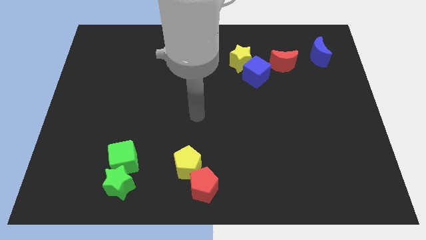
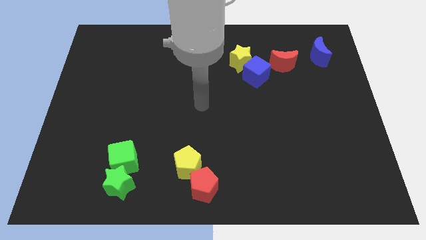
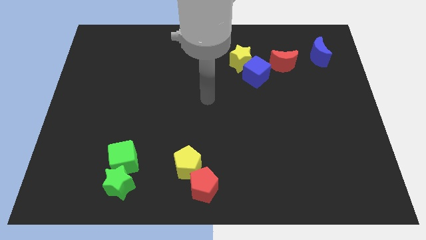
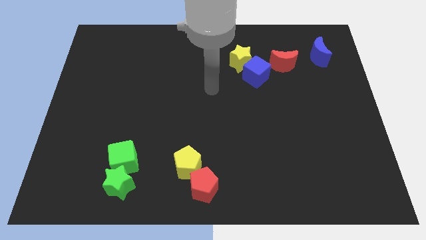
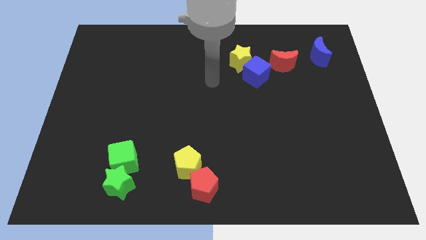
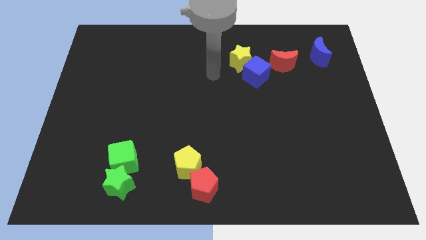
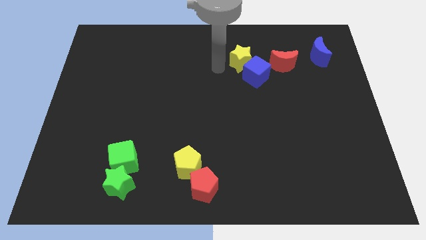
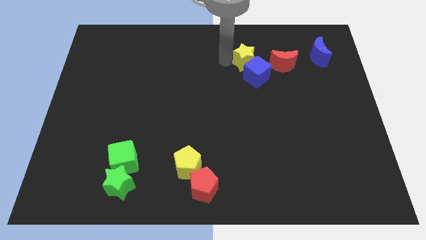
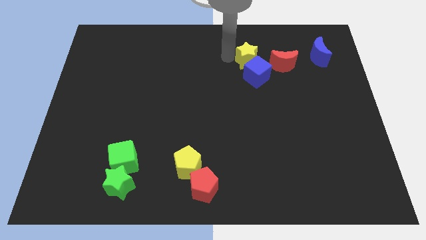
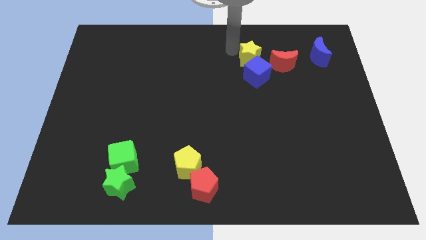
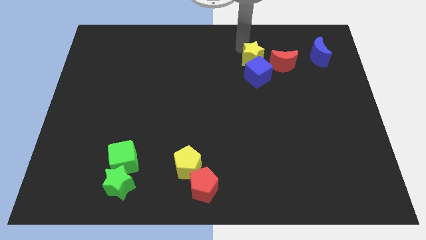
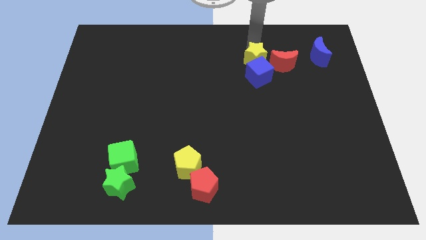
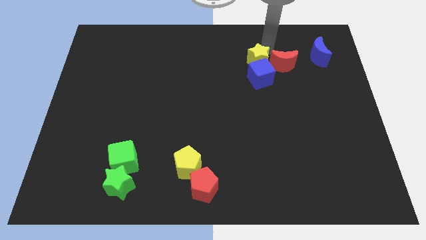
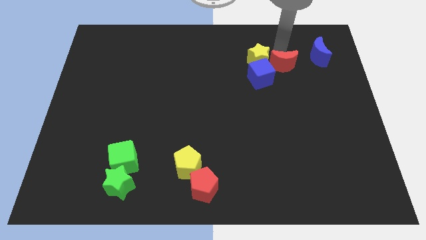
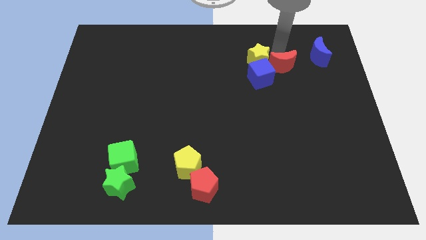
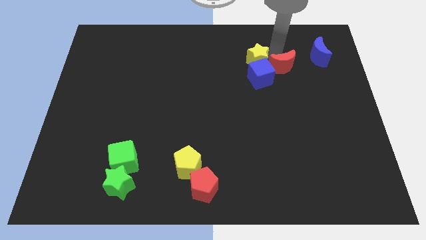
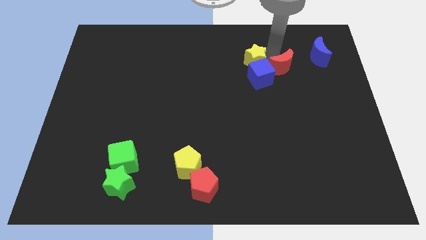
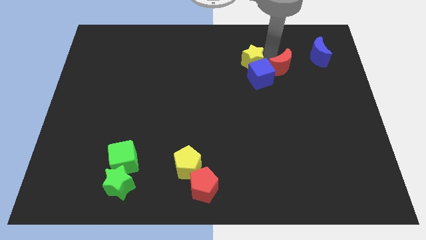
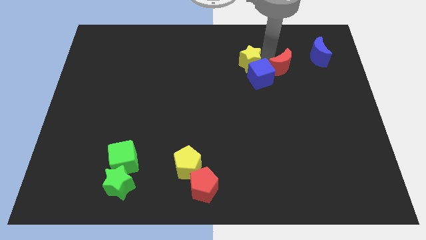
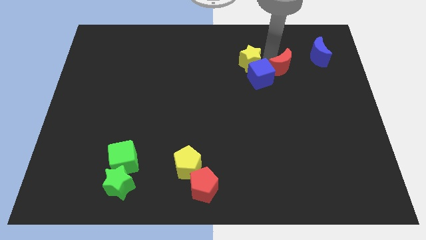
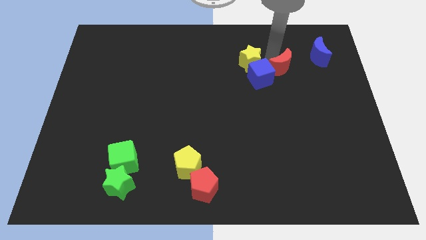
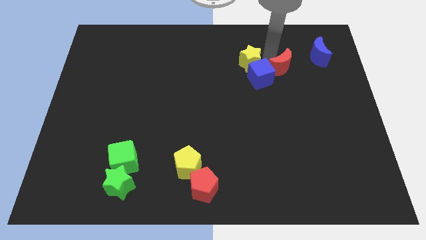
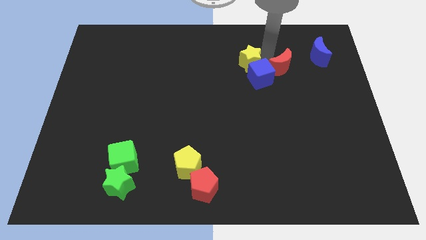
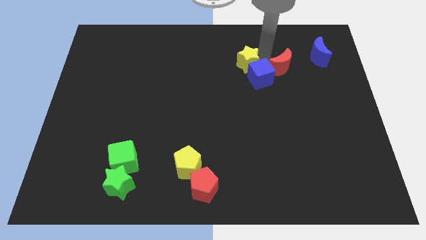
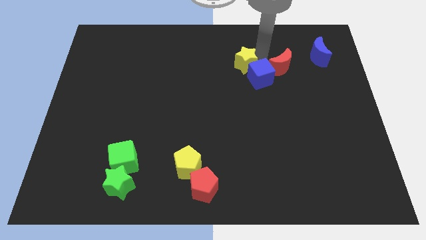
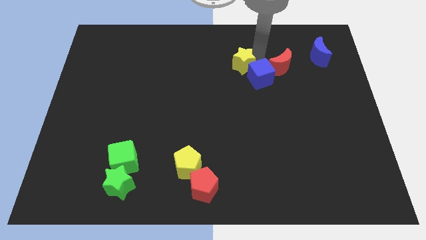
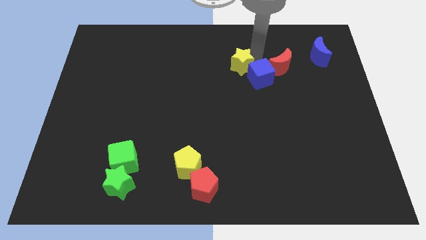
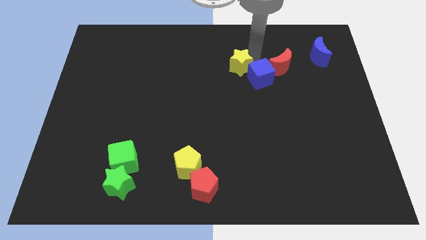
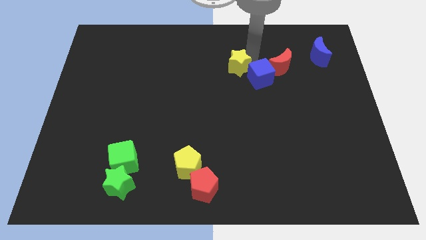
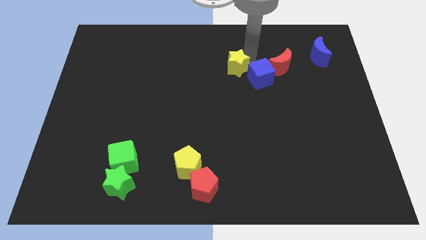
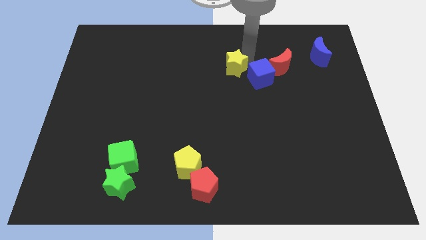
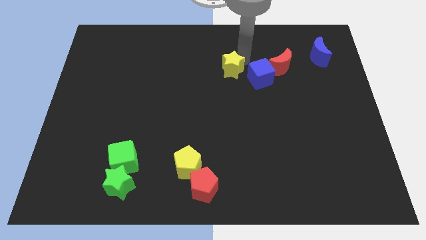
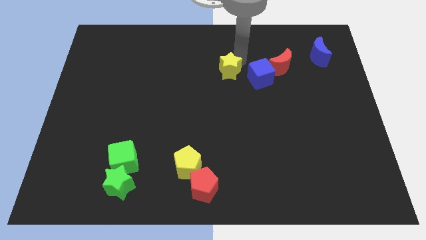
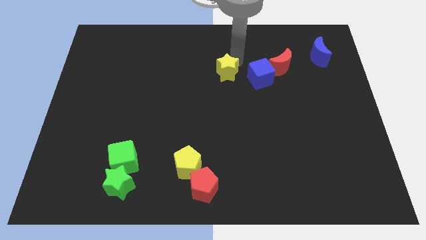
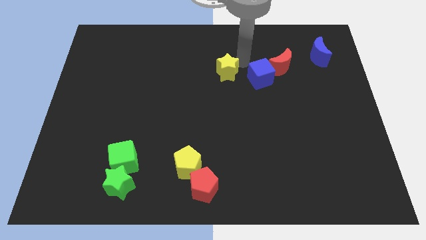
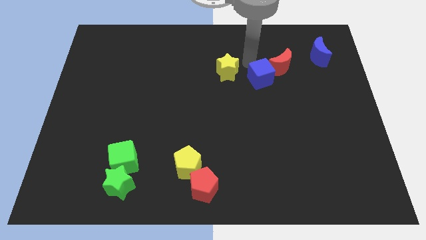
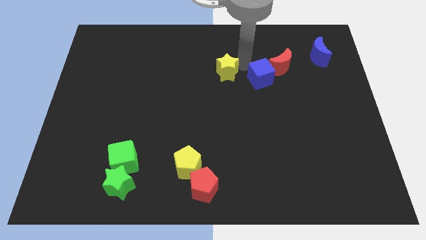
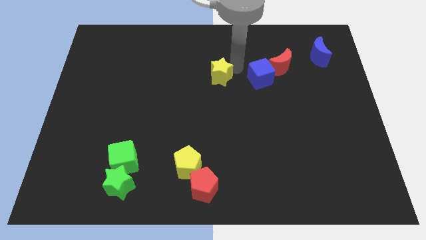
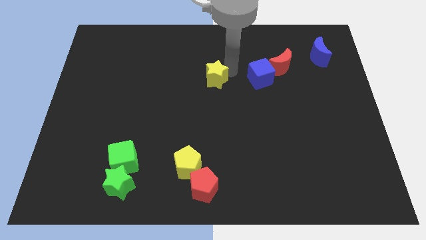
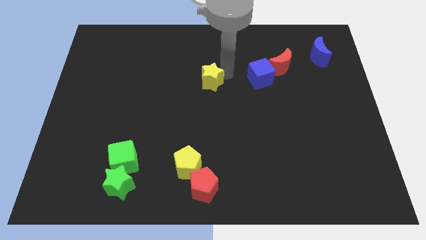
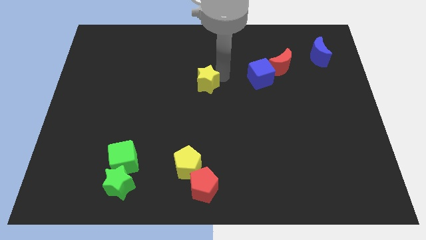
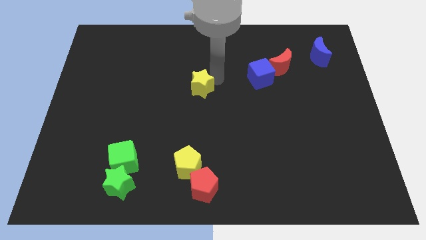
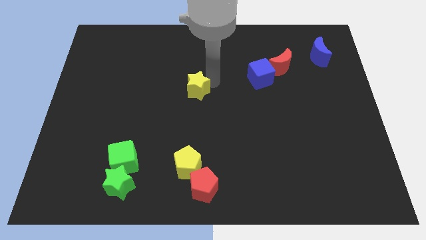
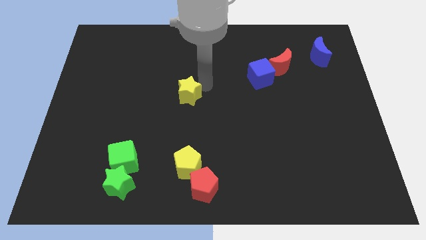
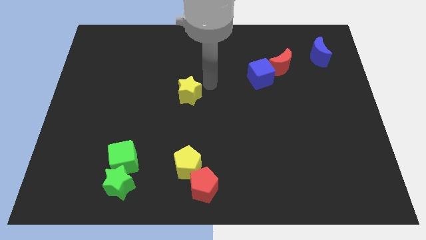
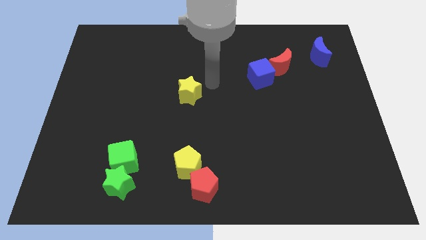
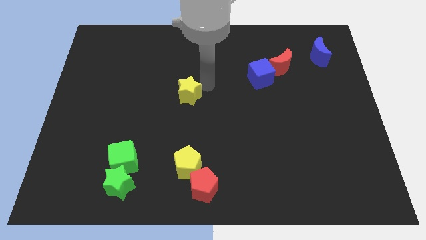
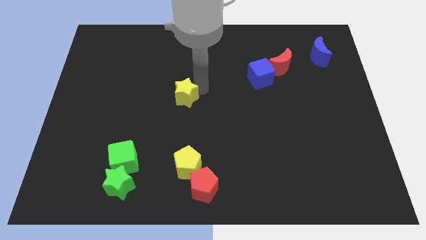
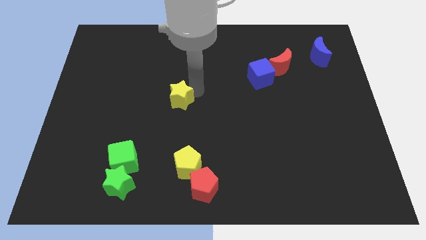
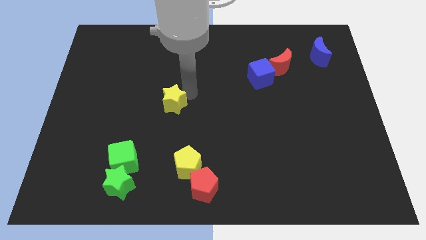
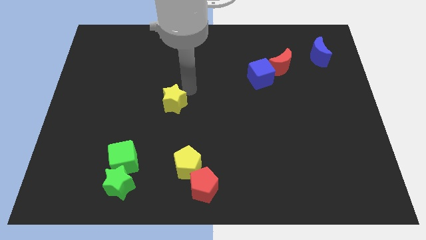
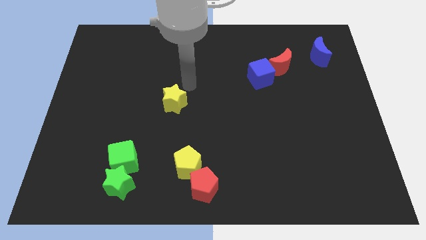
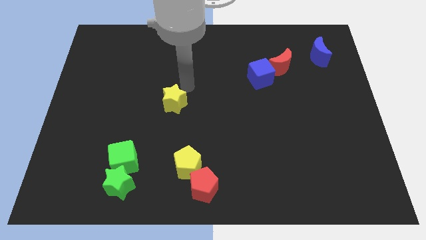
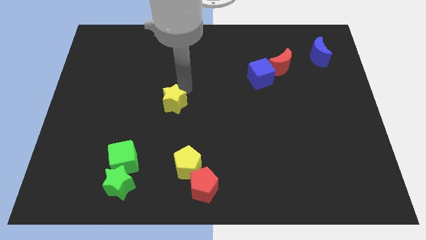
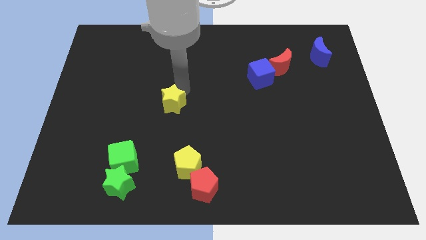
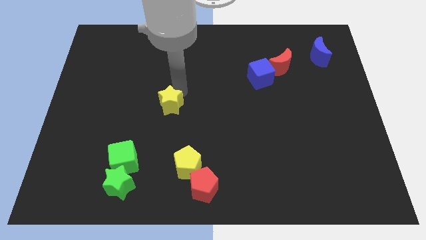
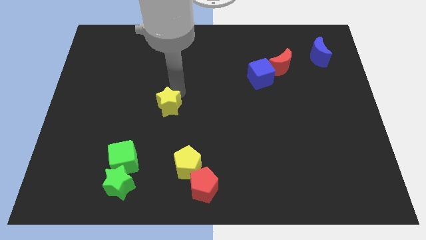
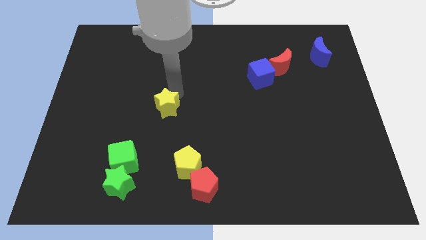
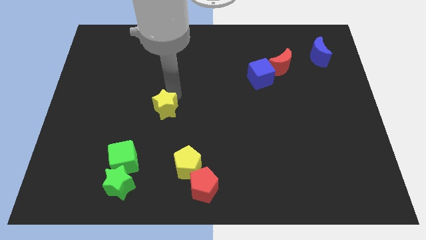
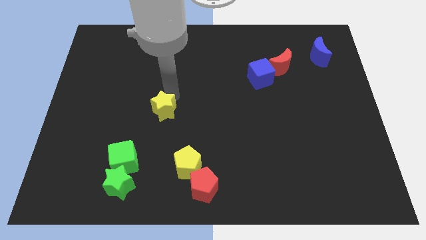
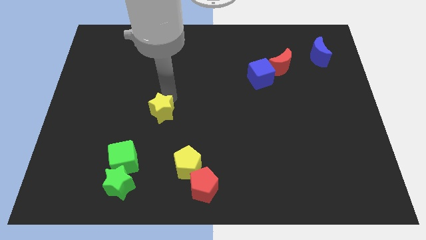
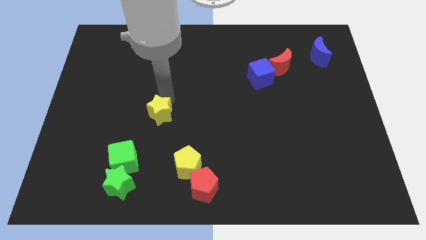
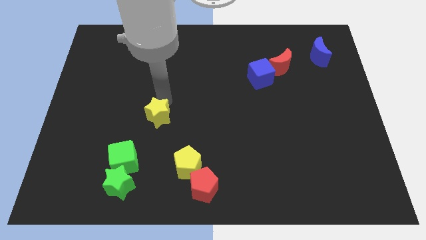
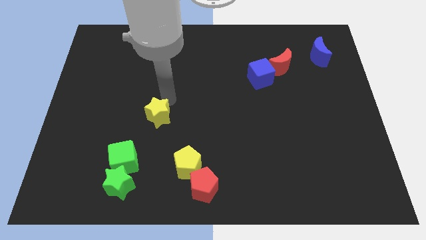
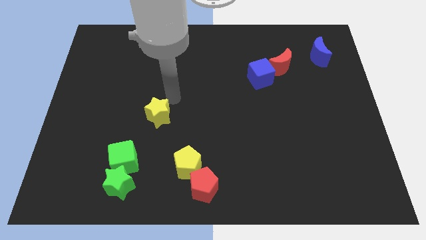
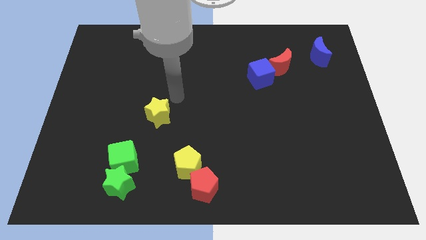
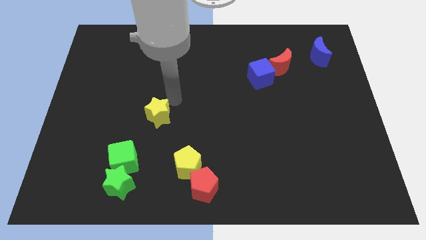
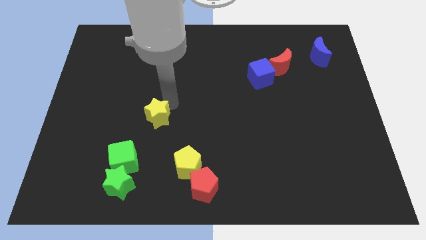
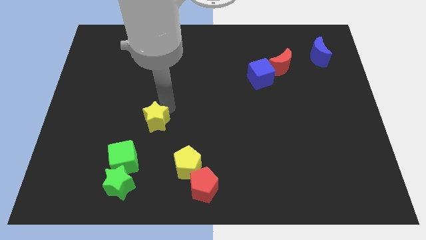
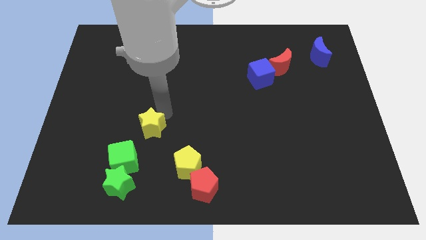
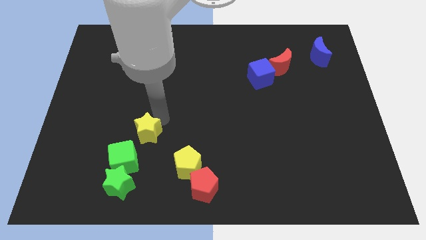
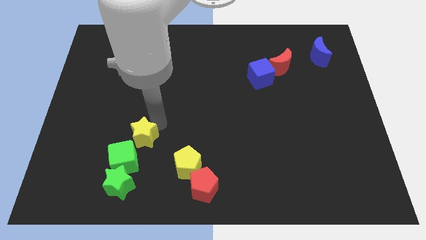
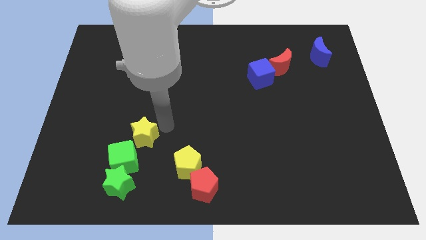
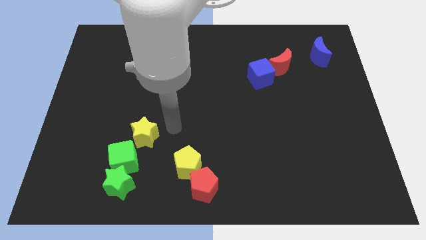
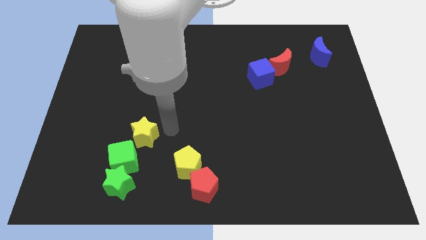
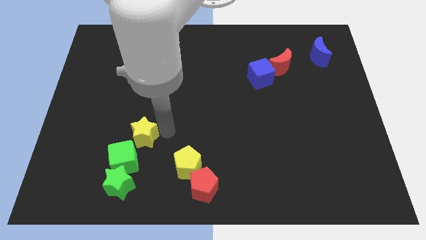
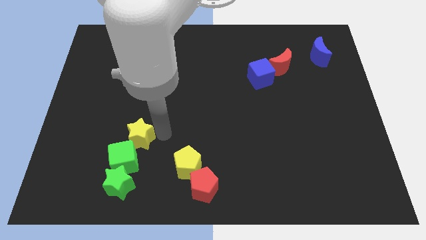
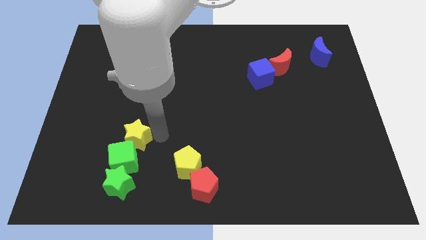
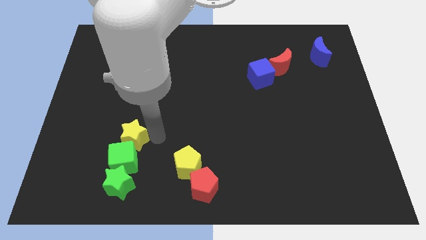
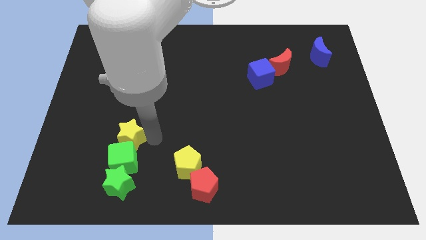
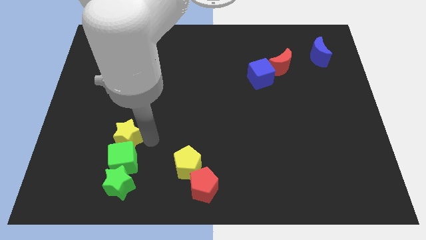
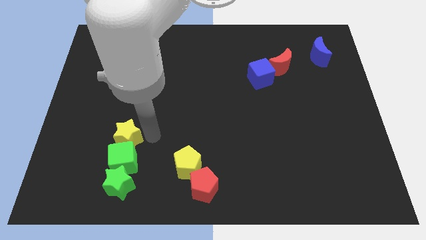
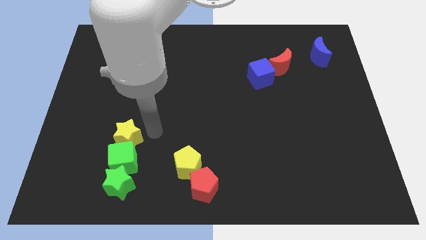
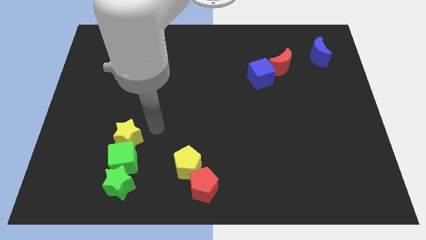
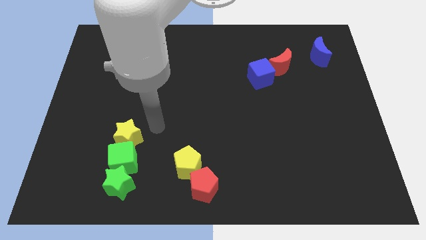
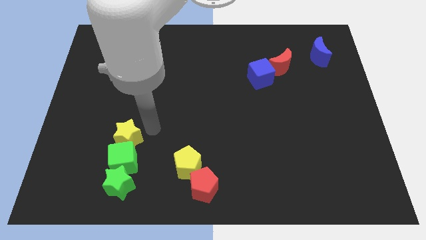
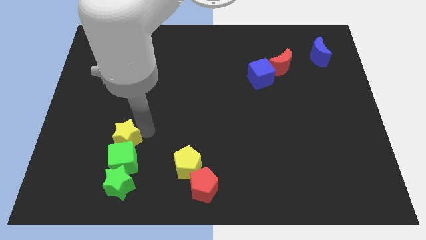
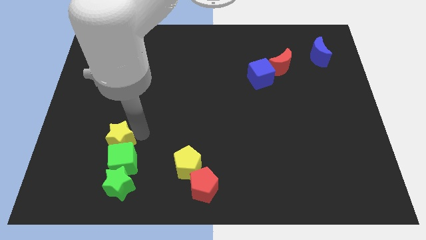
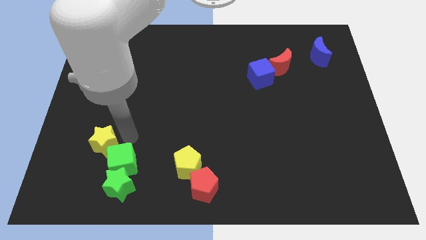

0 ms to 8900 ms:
slide the yellow star left of the green cube
